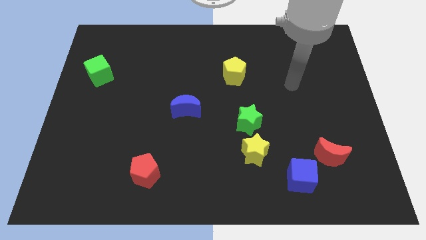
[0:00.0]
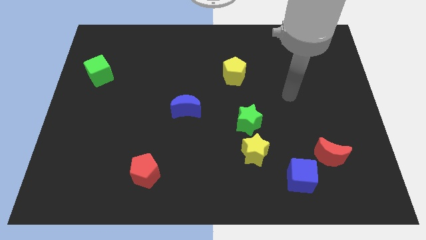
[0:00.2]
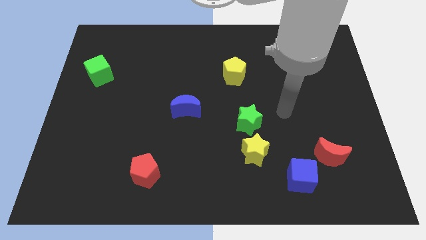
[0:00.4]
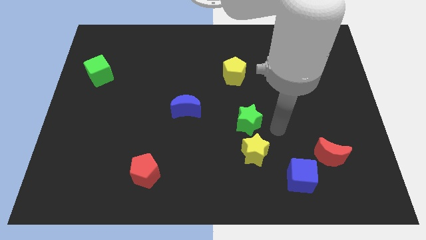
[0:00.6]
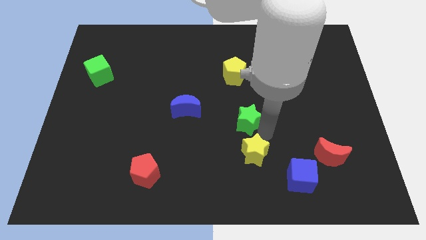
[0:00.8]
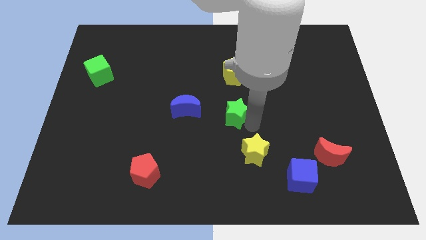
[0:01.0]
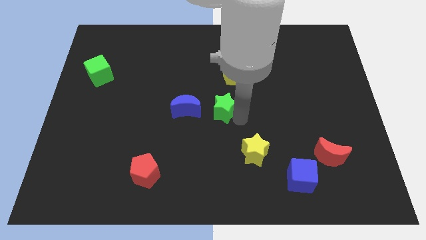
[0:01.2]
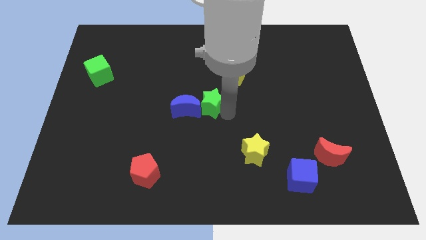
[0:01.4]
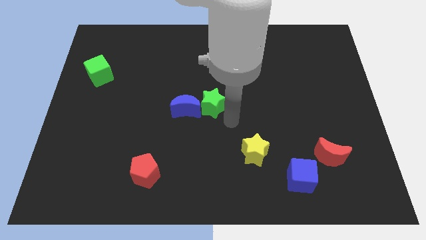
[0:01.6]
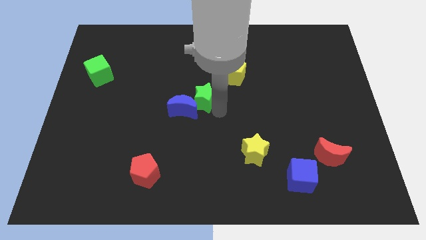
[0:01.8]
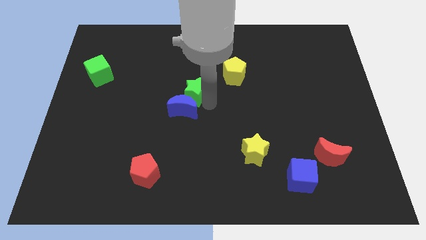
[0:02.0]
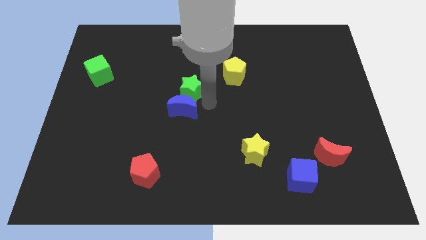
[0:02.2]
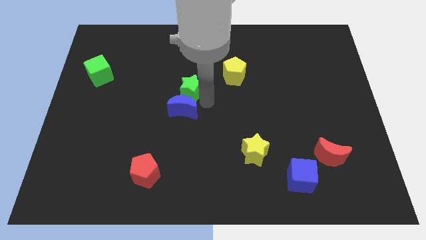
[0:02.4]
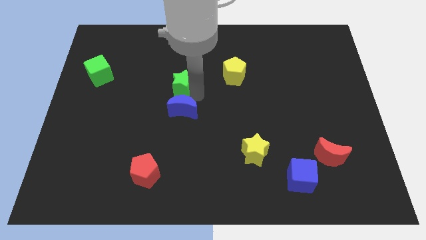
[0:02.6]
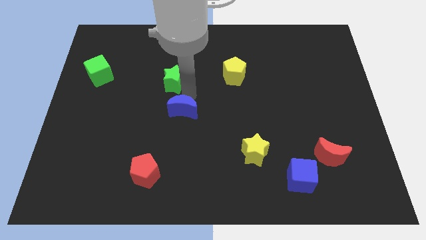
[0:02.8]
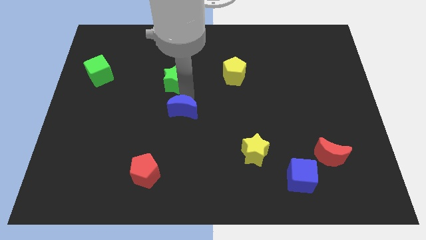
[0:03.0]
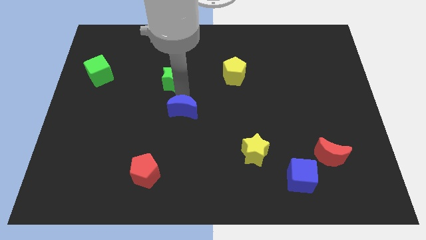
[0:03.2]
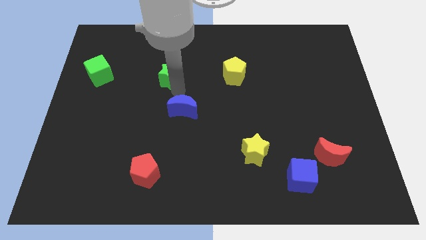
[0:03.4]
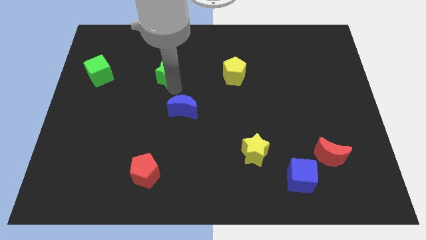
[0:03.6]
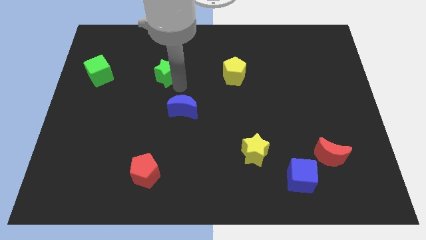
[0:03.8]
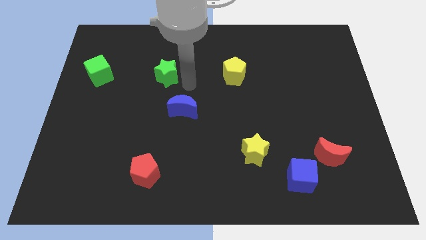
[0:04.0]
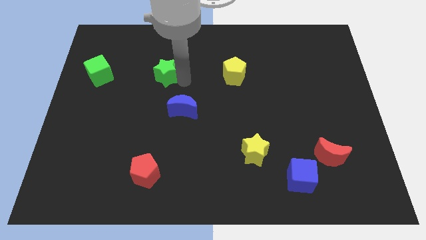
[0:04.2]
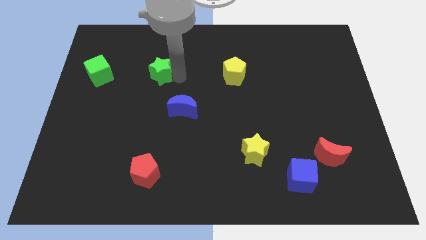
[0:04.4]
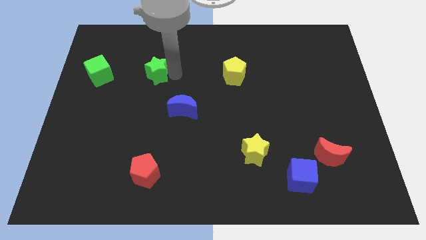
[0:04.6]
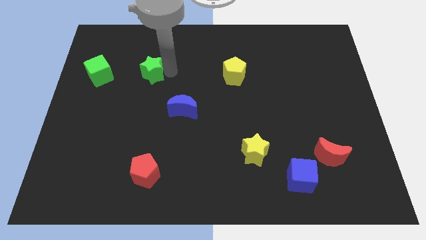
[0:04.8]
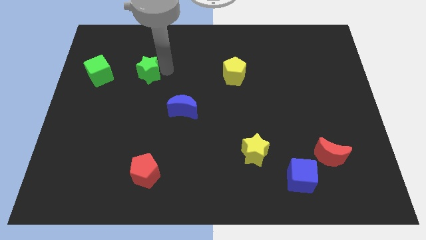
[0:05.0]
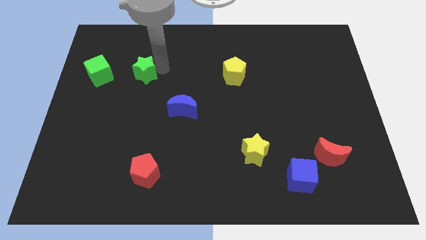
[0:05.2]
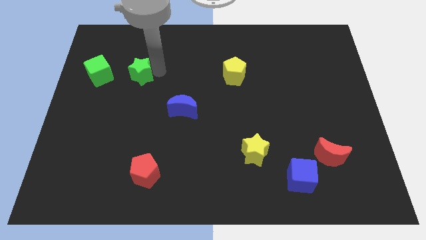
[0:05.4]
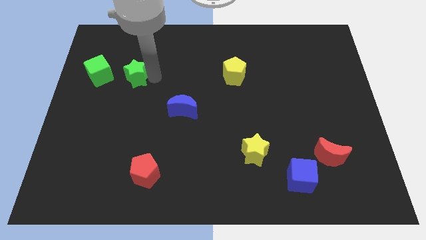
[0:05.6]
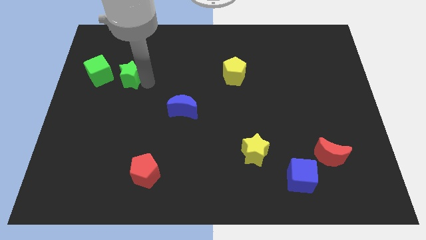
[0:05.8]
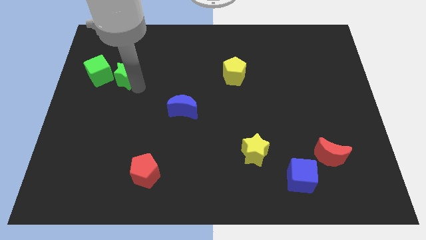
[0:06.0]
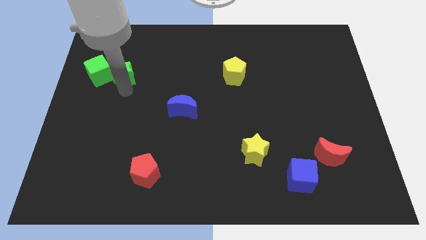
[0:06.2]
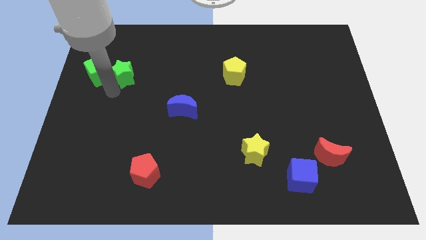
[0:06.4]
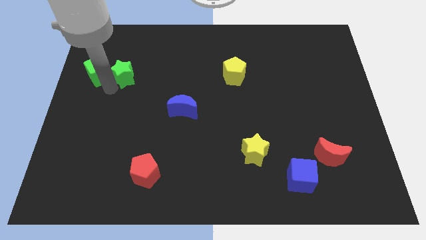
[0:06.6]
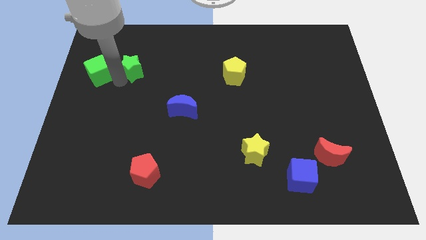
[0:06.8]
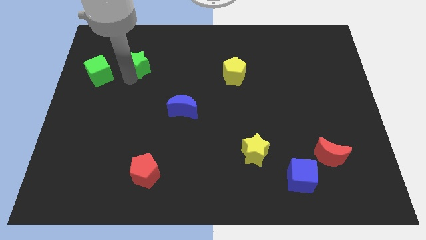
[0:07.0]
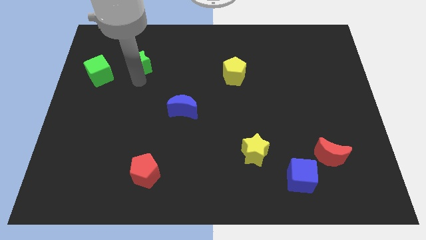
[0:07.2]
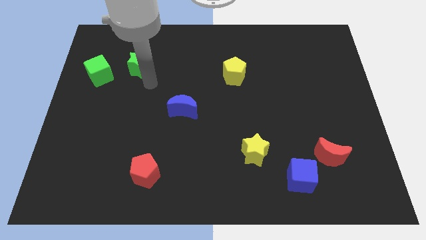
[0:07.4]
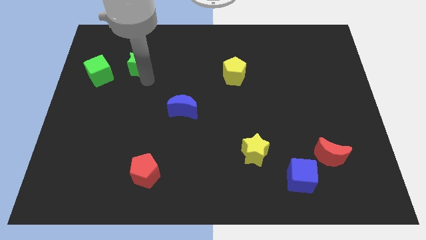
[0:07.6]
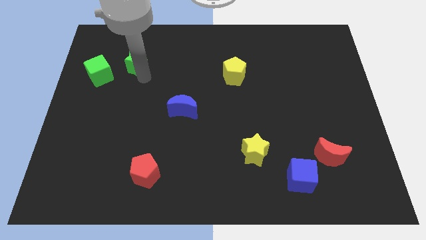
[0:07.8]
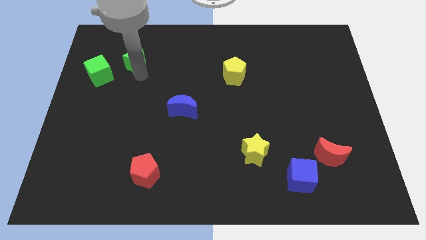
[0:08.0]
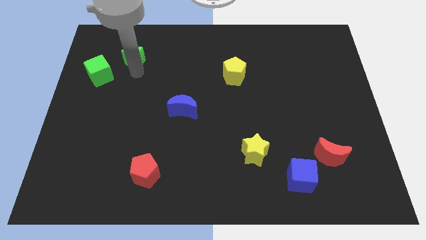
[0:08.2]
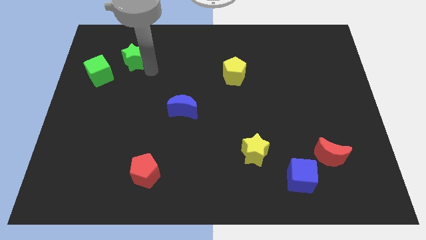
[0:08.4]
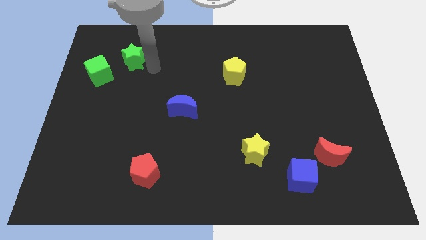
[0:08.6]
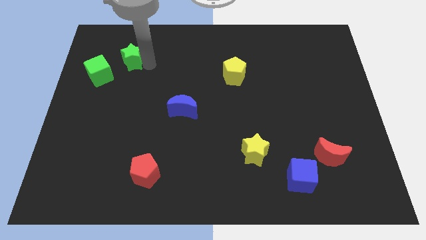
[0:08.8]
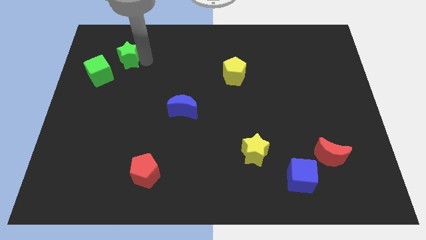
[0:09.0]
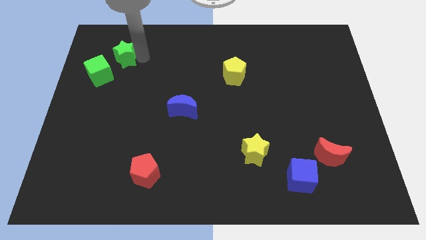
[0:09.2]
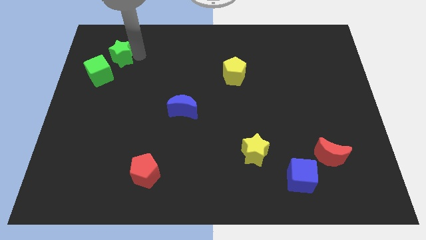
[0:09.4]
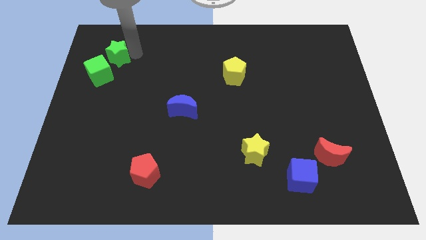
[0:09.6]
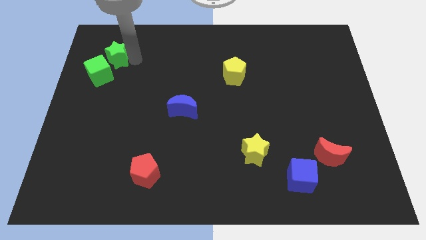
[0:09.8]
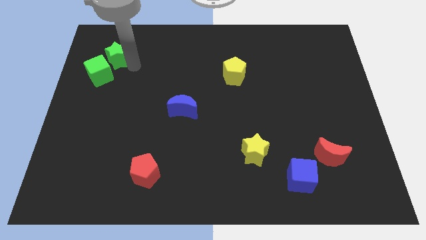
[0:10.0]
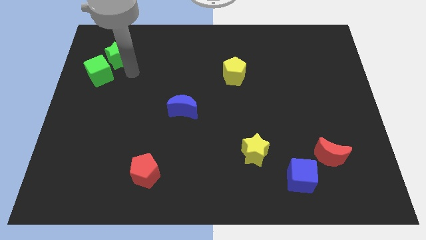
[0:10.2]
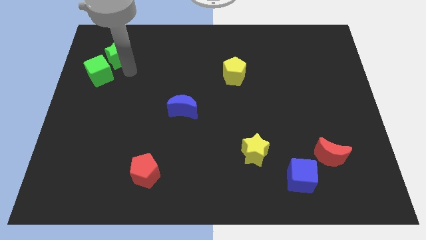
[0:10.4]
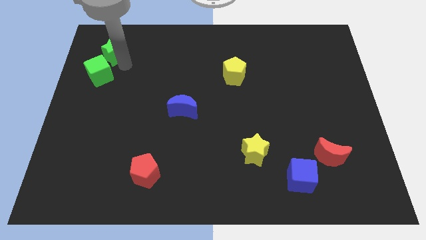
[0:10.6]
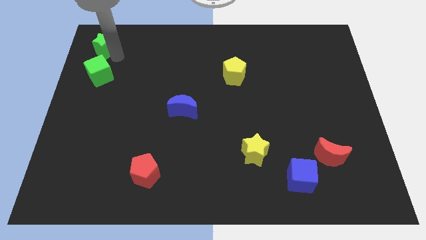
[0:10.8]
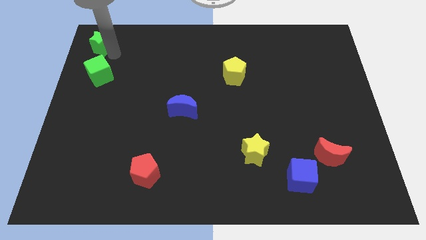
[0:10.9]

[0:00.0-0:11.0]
push the green star to the top left of the board

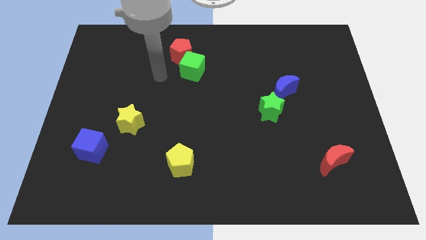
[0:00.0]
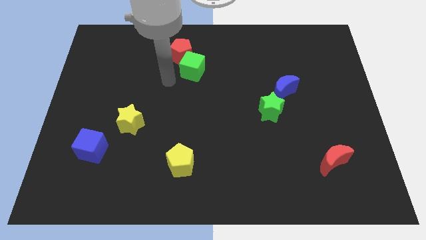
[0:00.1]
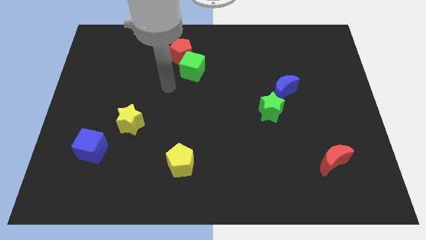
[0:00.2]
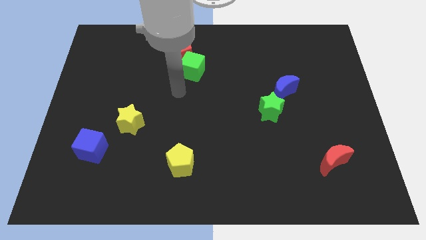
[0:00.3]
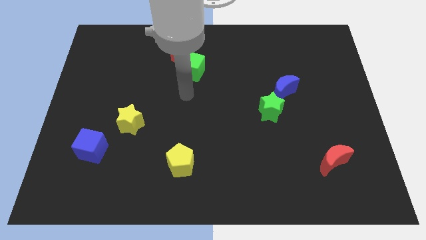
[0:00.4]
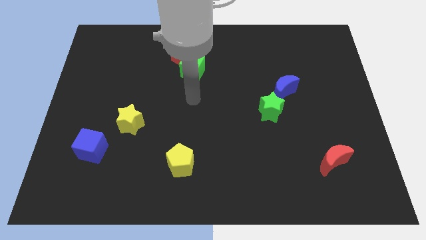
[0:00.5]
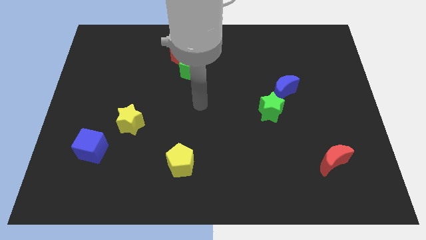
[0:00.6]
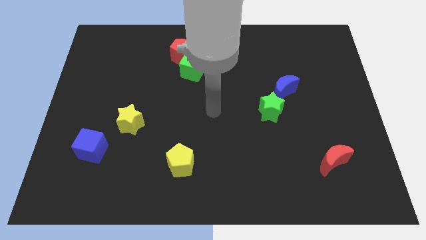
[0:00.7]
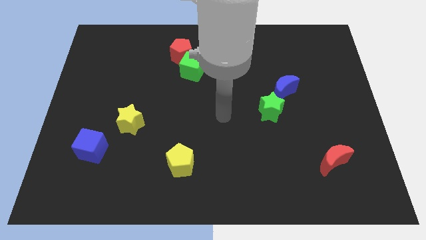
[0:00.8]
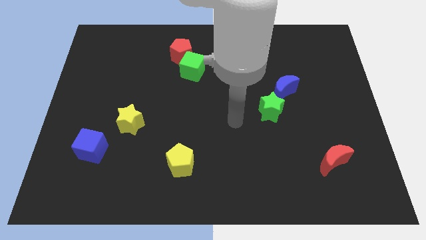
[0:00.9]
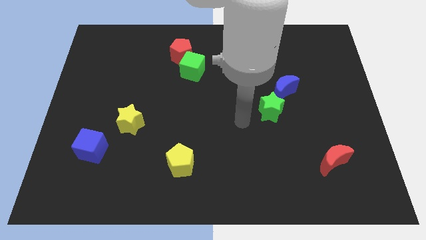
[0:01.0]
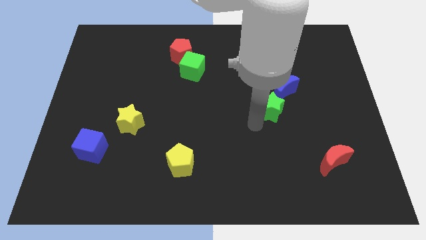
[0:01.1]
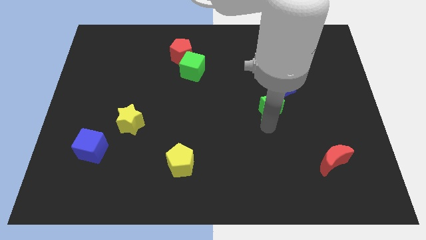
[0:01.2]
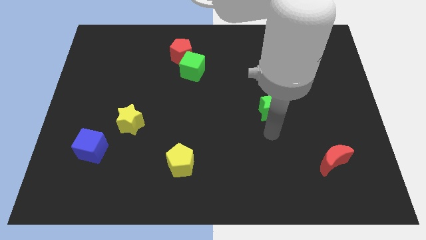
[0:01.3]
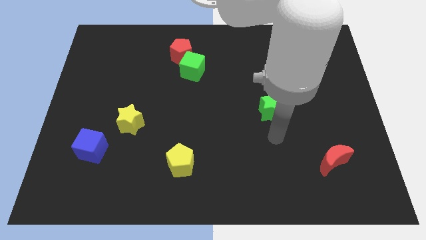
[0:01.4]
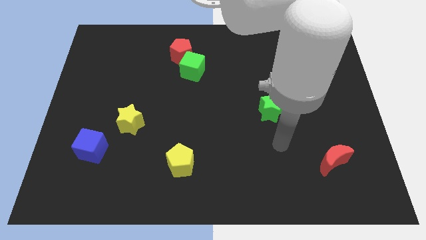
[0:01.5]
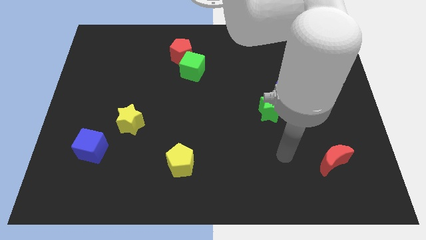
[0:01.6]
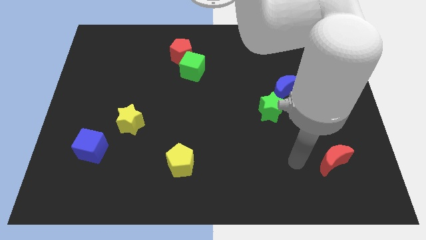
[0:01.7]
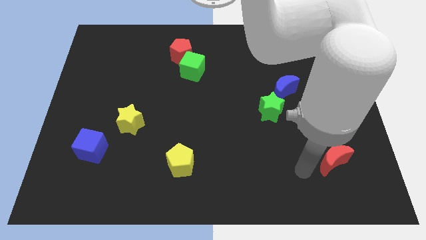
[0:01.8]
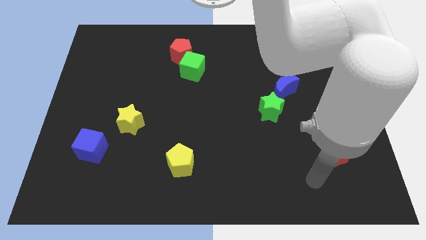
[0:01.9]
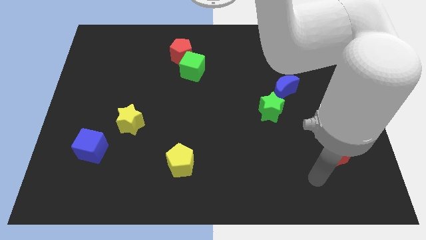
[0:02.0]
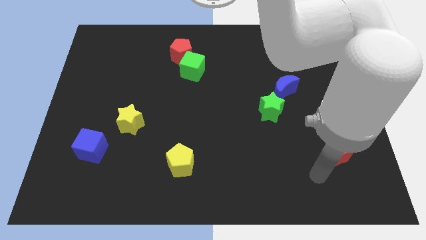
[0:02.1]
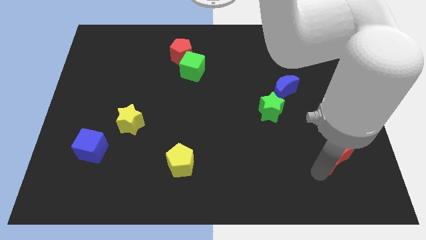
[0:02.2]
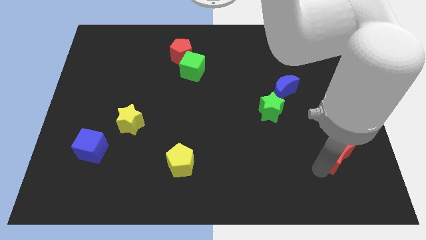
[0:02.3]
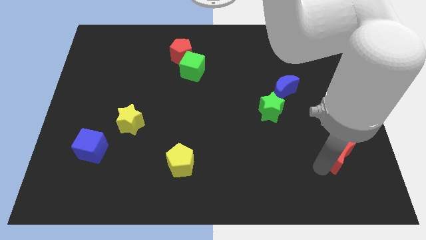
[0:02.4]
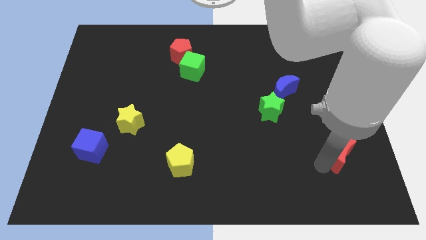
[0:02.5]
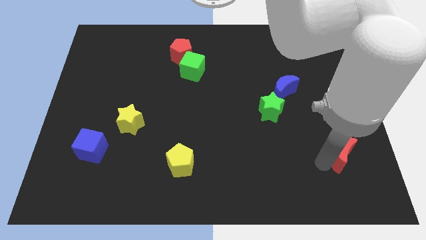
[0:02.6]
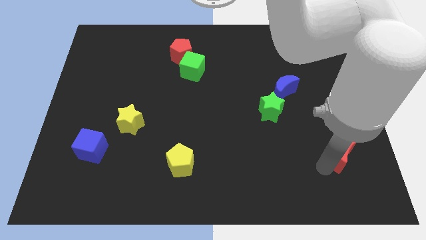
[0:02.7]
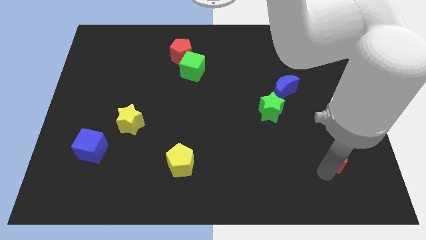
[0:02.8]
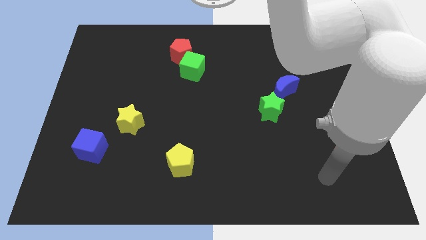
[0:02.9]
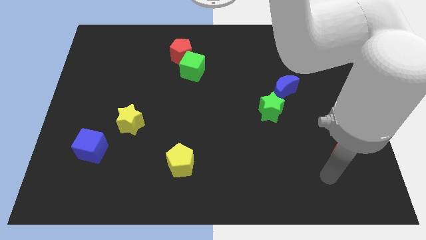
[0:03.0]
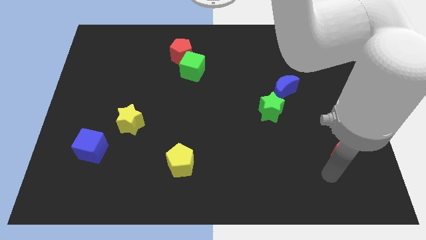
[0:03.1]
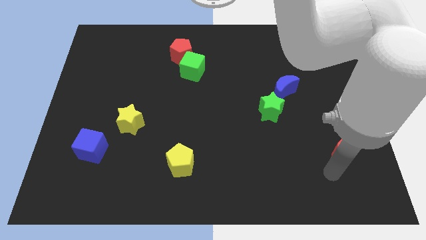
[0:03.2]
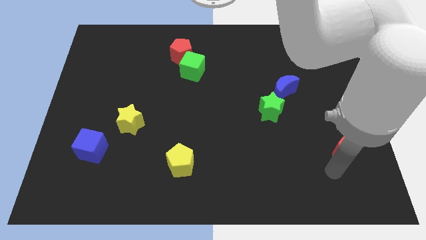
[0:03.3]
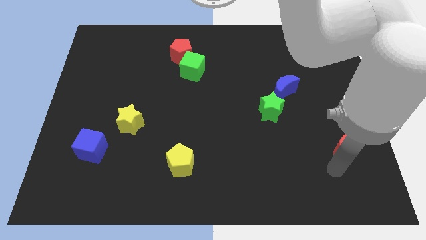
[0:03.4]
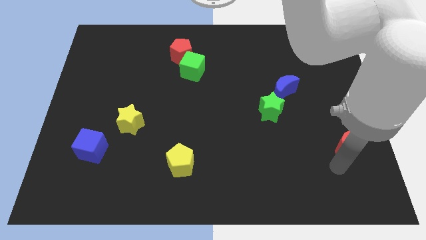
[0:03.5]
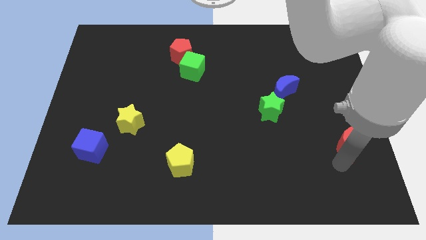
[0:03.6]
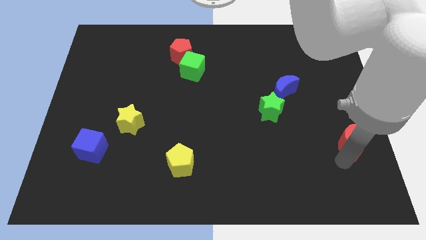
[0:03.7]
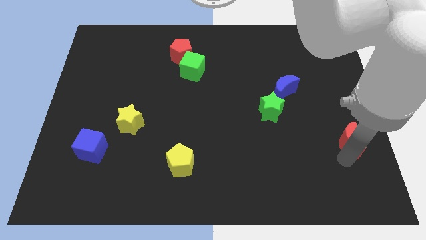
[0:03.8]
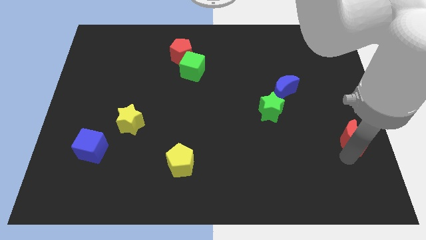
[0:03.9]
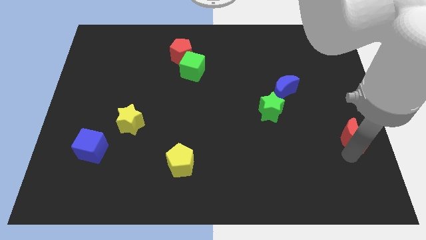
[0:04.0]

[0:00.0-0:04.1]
slide the red moon to the right side
